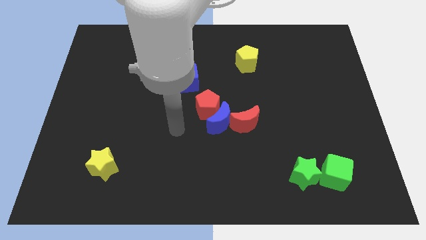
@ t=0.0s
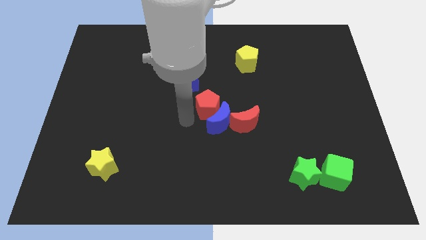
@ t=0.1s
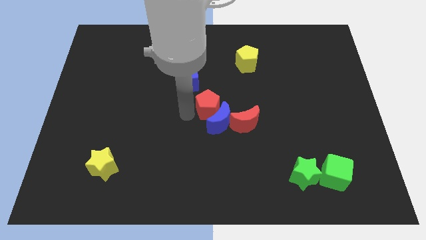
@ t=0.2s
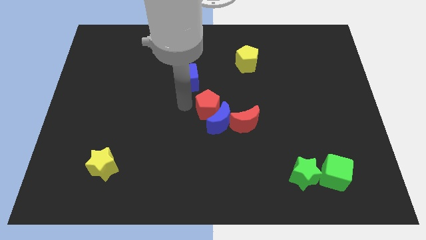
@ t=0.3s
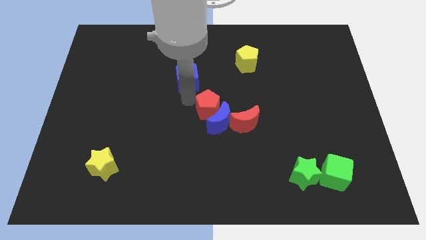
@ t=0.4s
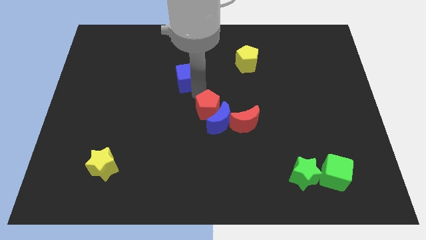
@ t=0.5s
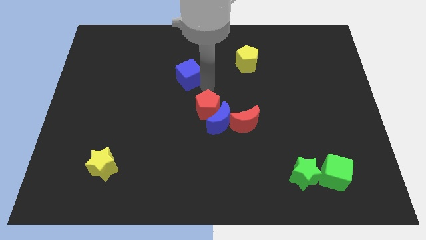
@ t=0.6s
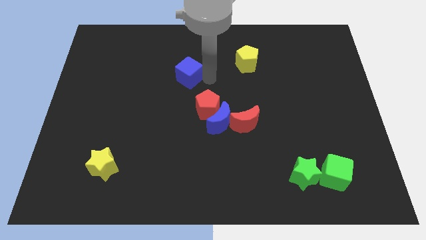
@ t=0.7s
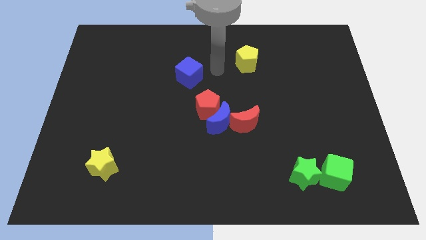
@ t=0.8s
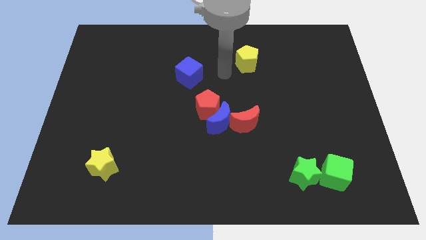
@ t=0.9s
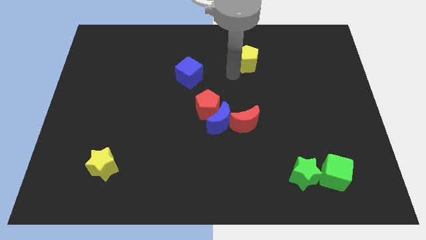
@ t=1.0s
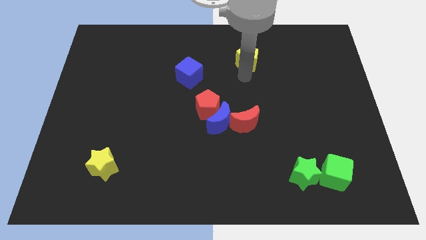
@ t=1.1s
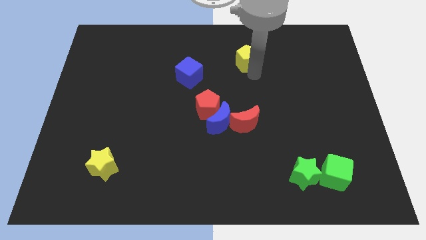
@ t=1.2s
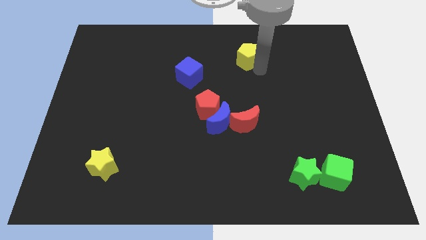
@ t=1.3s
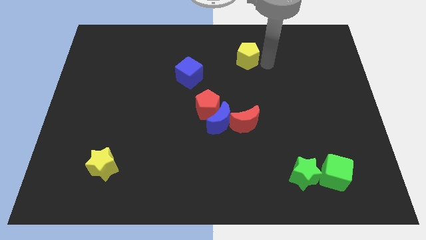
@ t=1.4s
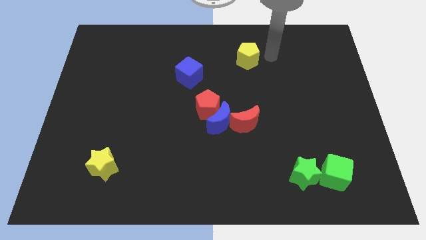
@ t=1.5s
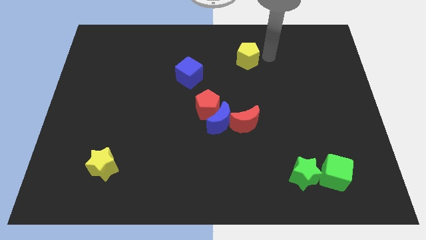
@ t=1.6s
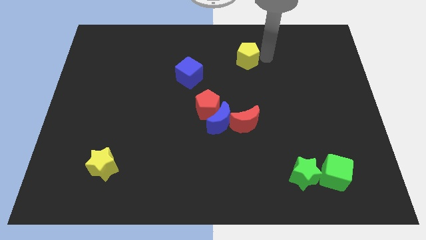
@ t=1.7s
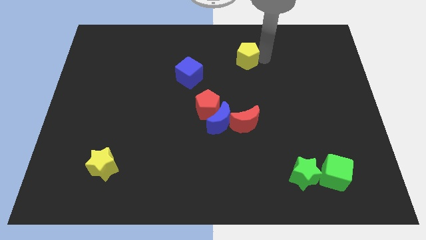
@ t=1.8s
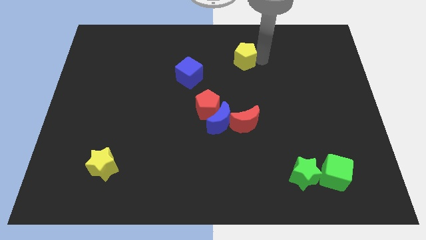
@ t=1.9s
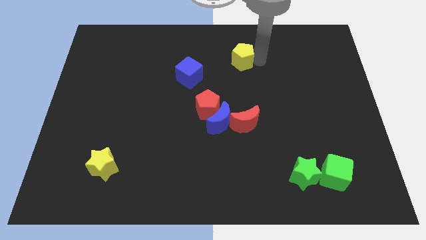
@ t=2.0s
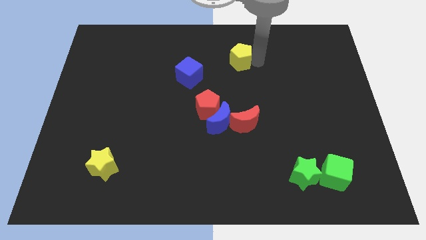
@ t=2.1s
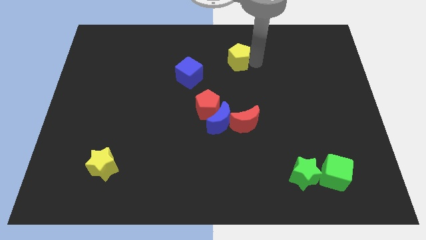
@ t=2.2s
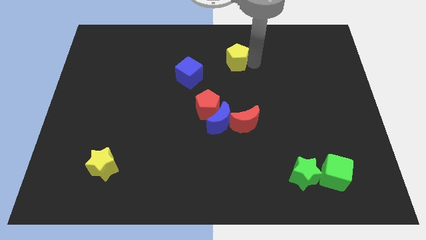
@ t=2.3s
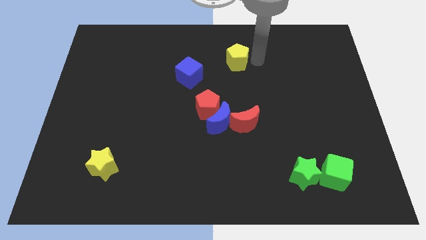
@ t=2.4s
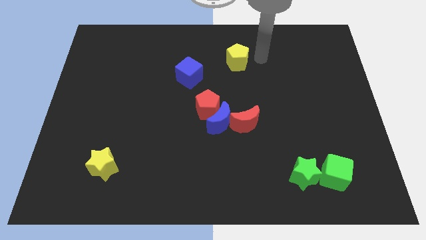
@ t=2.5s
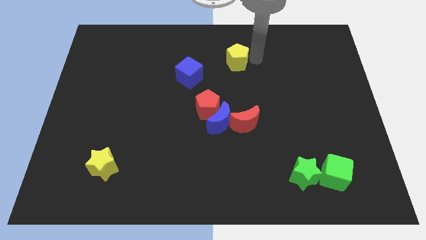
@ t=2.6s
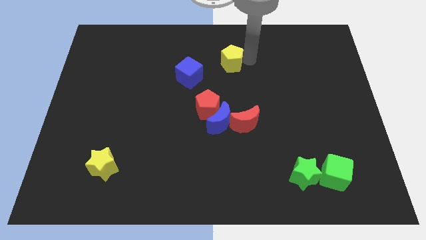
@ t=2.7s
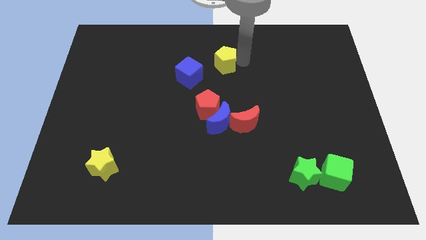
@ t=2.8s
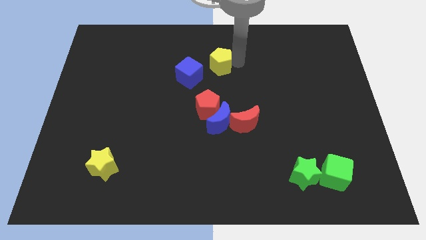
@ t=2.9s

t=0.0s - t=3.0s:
slide the yellow pentagon to the left slightly

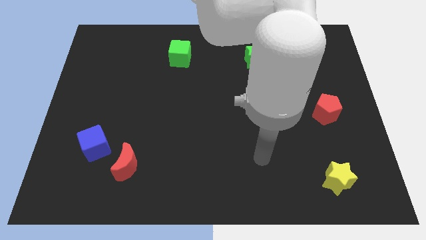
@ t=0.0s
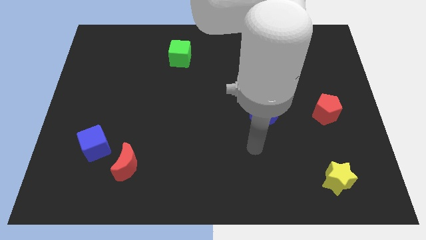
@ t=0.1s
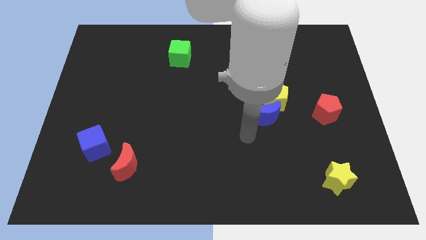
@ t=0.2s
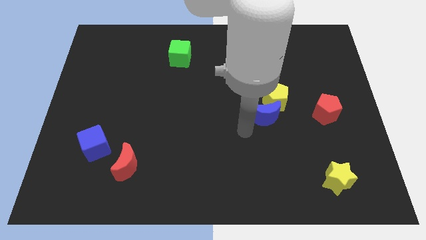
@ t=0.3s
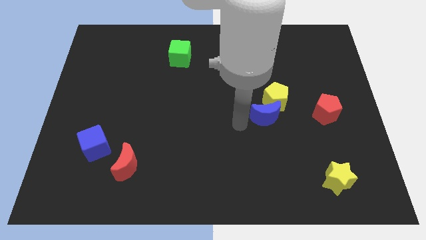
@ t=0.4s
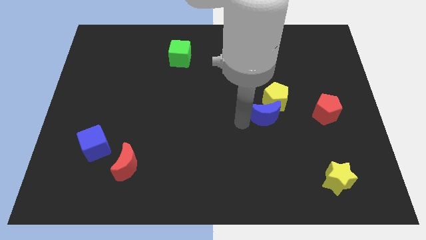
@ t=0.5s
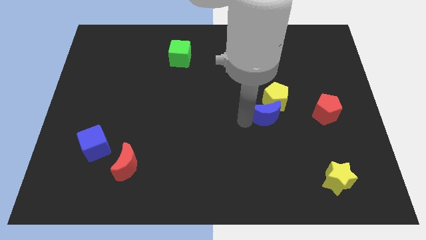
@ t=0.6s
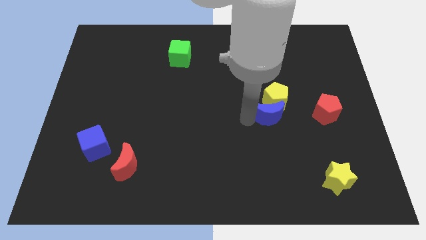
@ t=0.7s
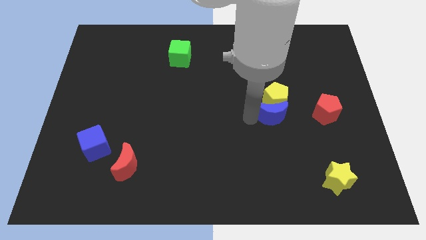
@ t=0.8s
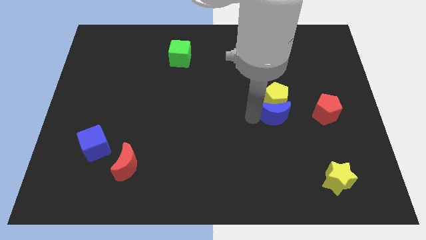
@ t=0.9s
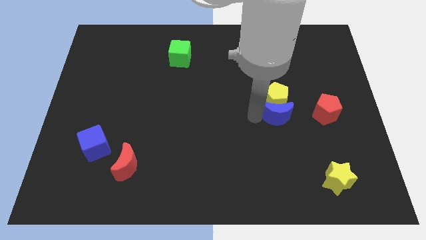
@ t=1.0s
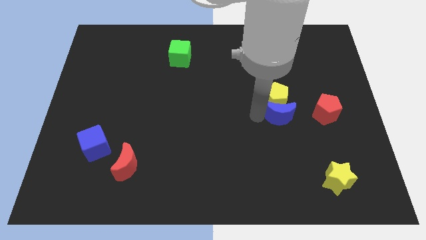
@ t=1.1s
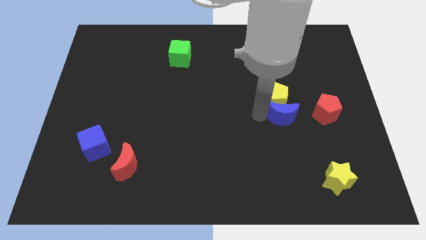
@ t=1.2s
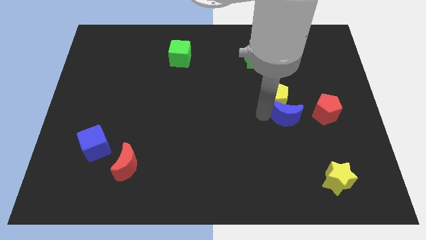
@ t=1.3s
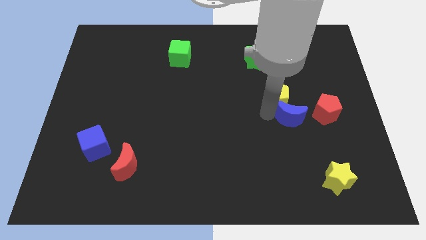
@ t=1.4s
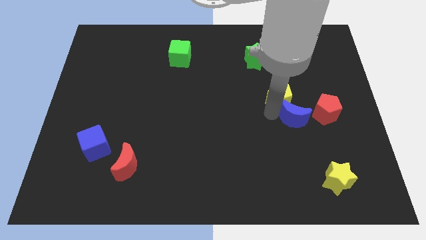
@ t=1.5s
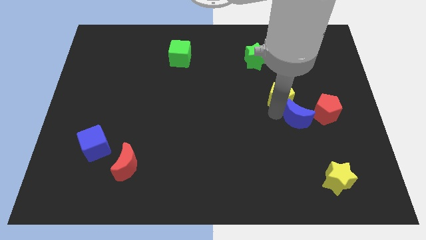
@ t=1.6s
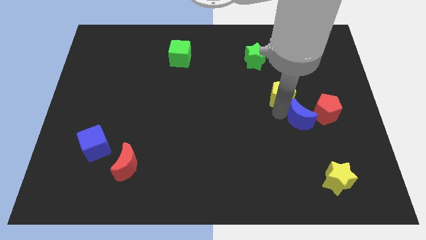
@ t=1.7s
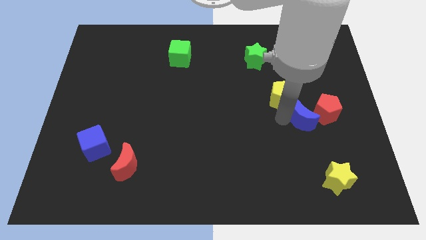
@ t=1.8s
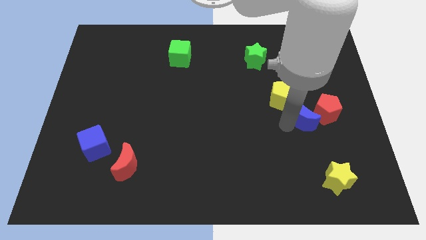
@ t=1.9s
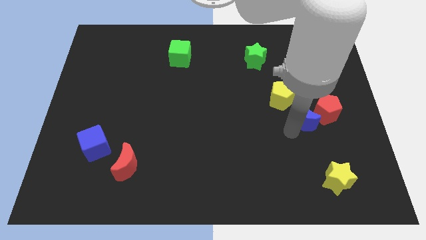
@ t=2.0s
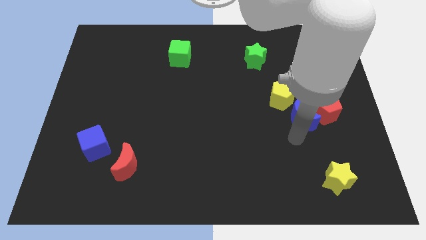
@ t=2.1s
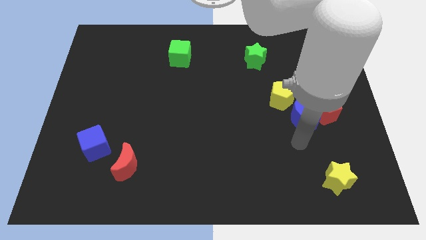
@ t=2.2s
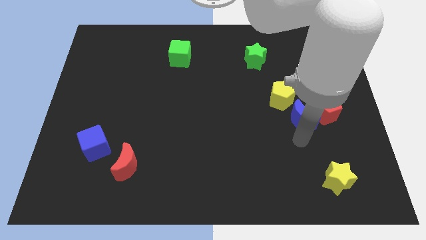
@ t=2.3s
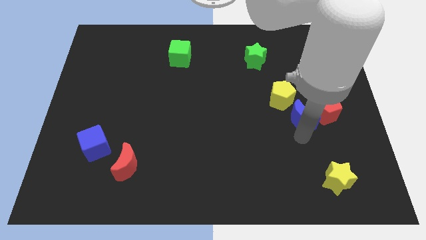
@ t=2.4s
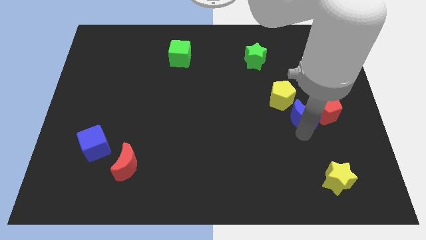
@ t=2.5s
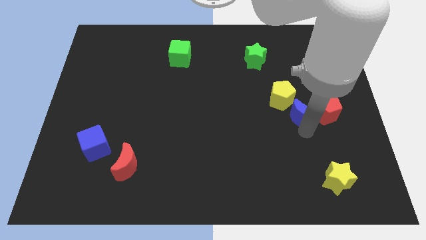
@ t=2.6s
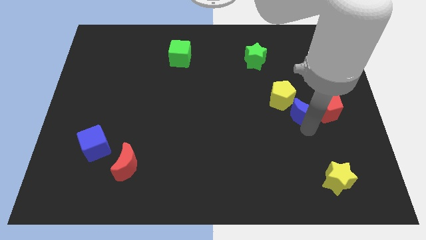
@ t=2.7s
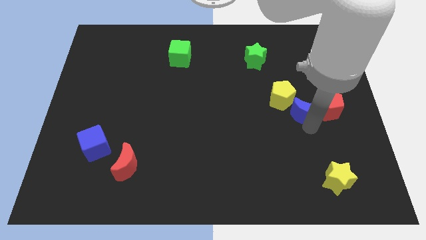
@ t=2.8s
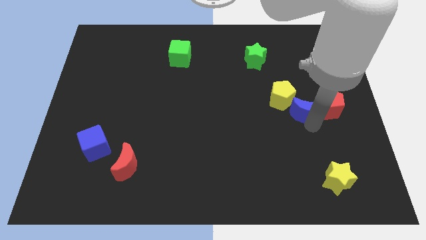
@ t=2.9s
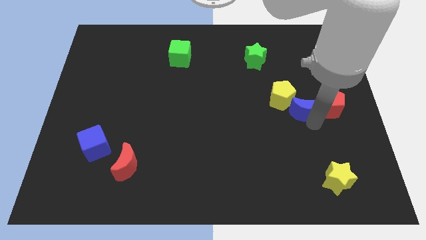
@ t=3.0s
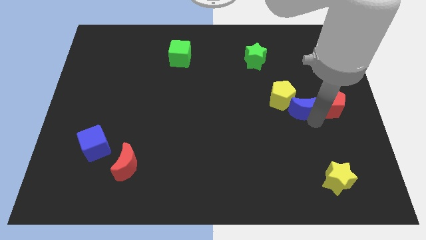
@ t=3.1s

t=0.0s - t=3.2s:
move the blue moon somewhat upwards and right diagonally

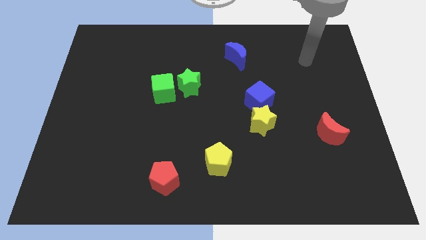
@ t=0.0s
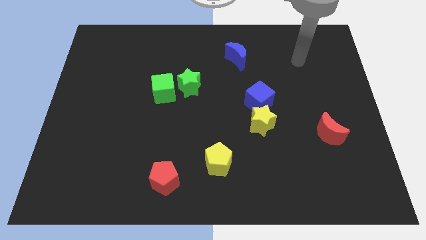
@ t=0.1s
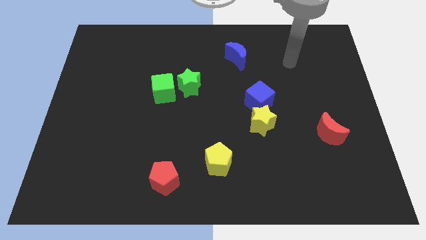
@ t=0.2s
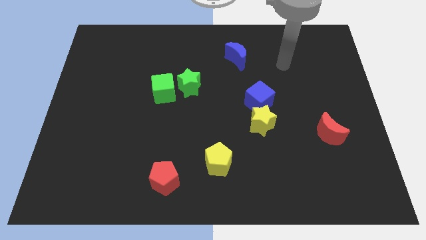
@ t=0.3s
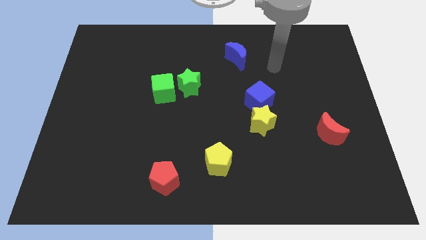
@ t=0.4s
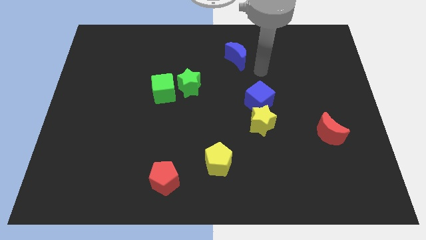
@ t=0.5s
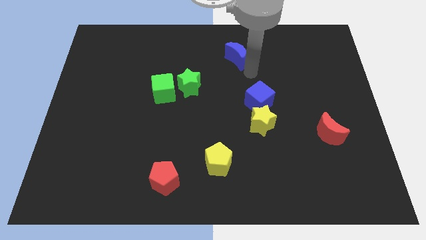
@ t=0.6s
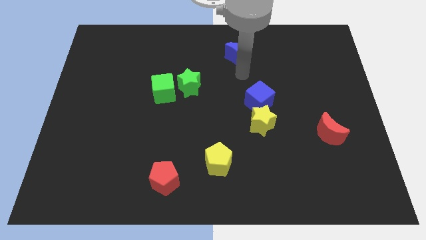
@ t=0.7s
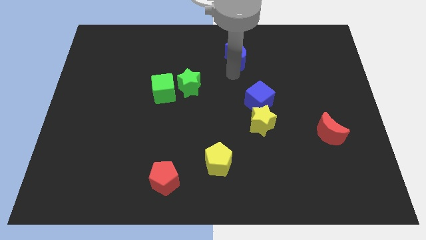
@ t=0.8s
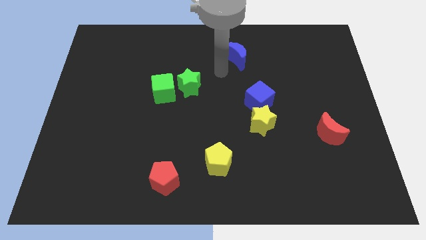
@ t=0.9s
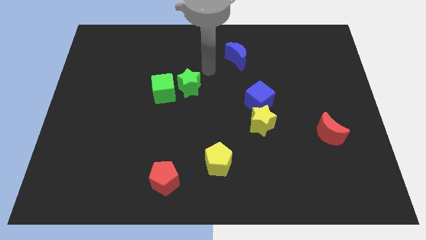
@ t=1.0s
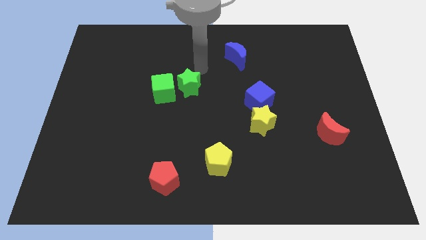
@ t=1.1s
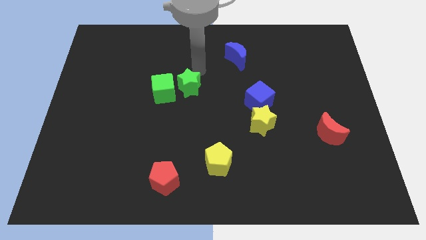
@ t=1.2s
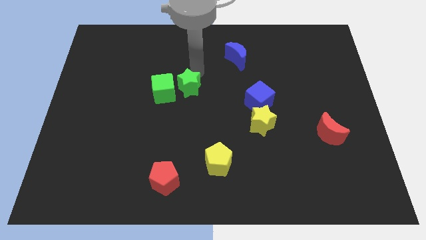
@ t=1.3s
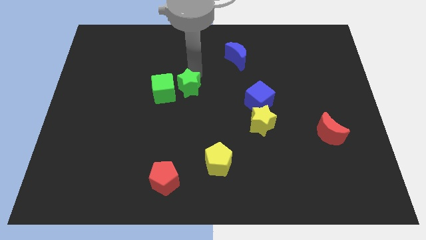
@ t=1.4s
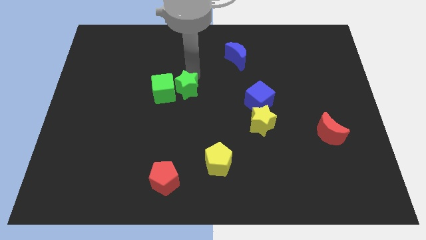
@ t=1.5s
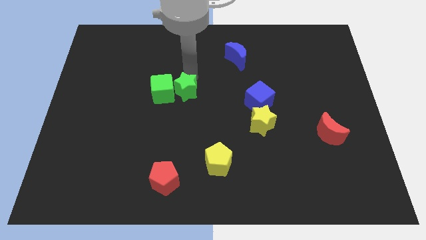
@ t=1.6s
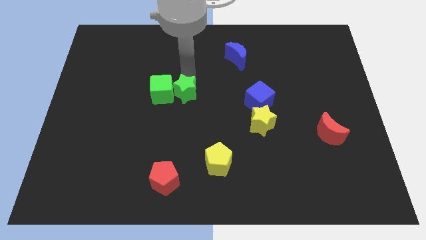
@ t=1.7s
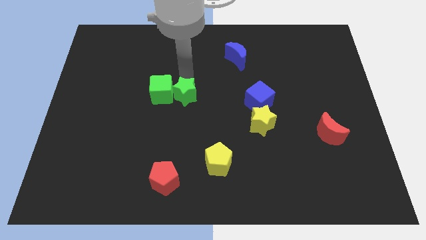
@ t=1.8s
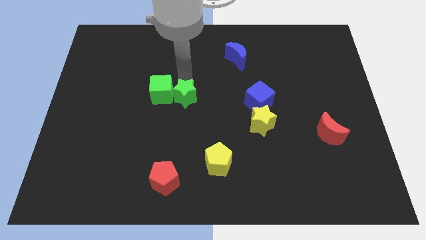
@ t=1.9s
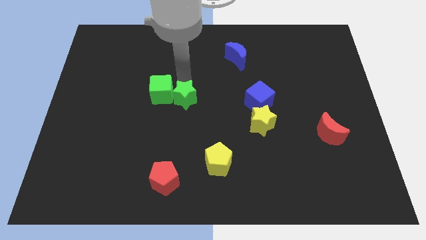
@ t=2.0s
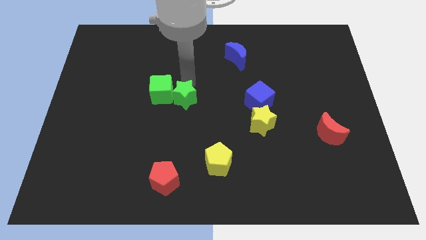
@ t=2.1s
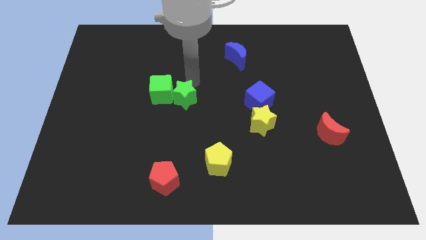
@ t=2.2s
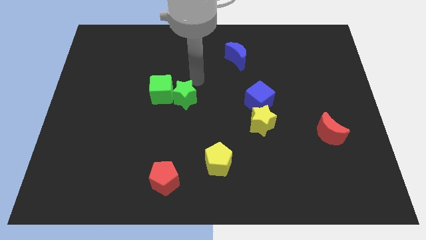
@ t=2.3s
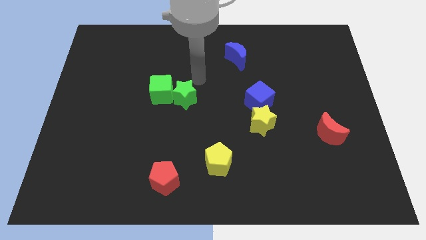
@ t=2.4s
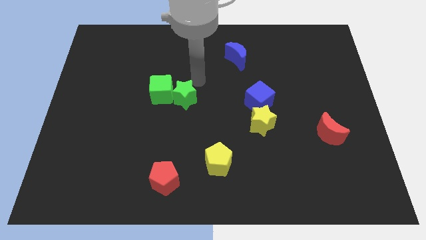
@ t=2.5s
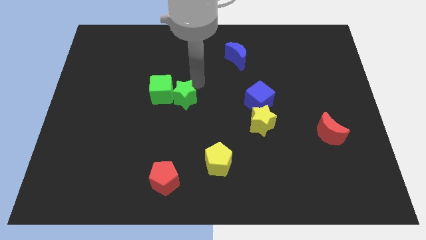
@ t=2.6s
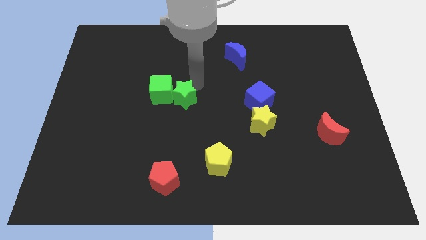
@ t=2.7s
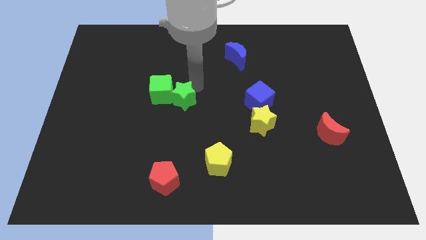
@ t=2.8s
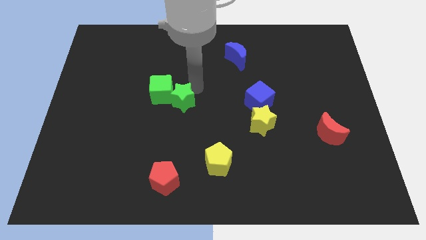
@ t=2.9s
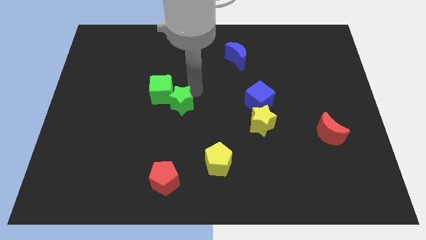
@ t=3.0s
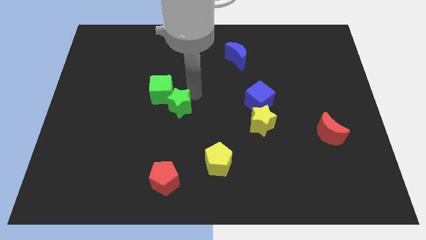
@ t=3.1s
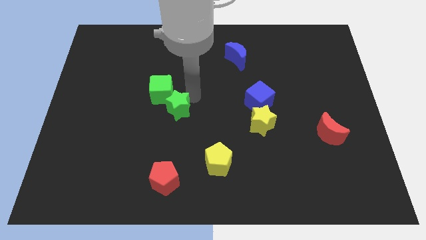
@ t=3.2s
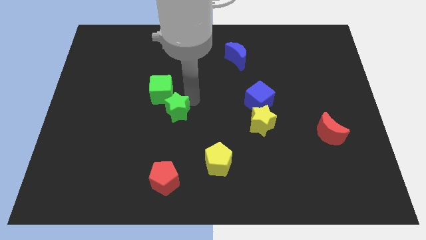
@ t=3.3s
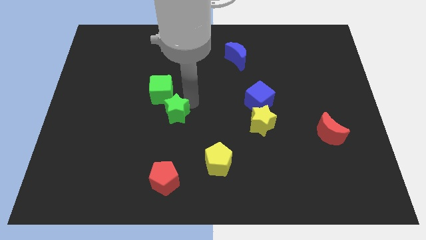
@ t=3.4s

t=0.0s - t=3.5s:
slide the green star diagonally downwards and to the left a little
